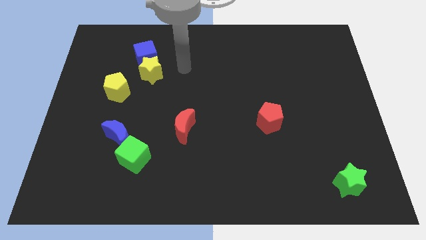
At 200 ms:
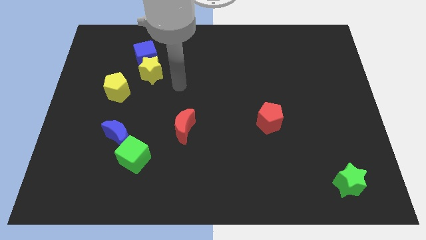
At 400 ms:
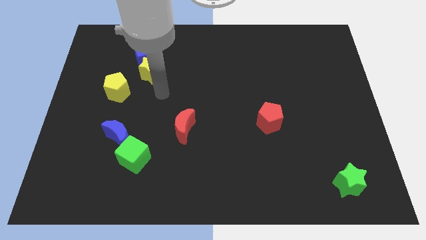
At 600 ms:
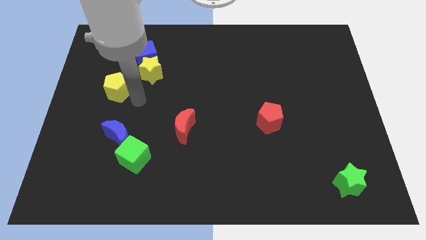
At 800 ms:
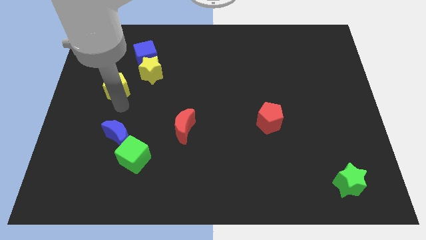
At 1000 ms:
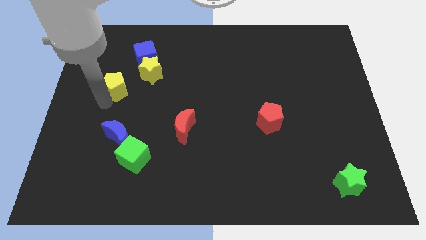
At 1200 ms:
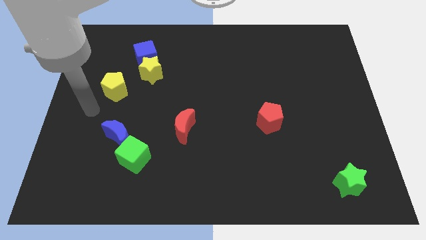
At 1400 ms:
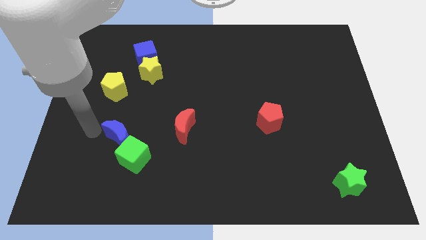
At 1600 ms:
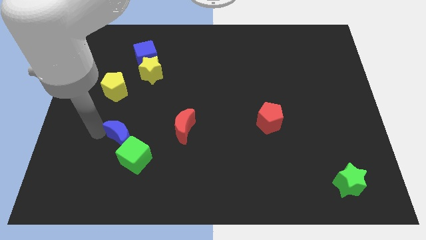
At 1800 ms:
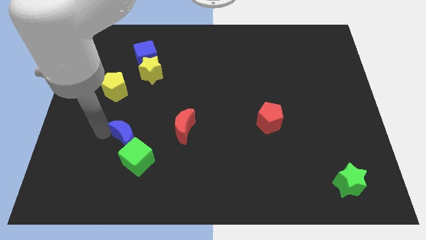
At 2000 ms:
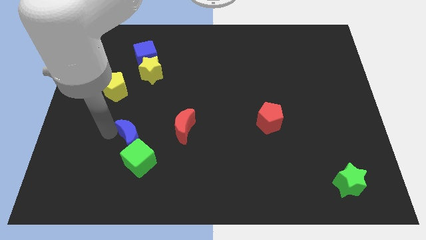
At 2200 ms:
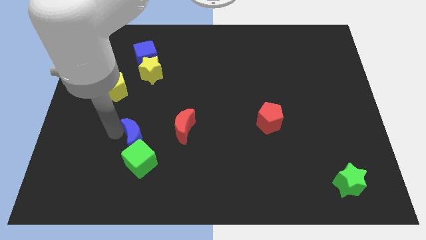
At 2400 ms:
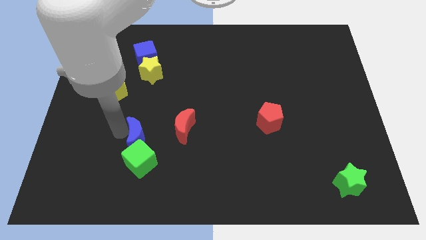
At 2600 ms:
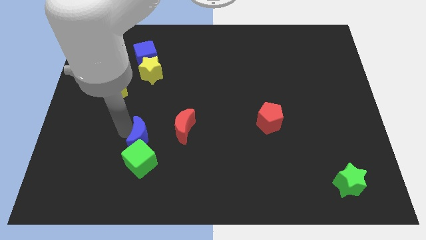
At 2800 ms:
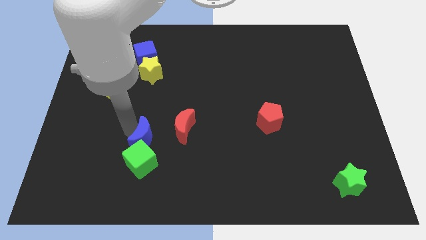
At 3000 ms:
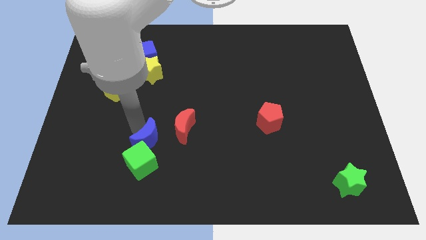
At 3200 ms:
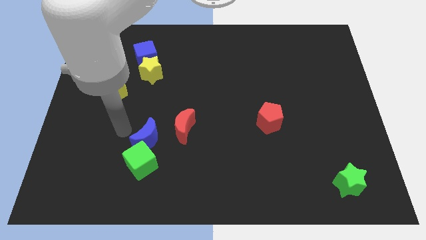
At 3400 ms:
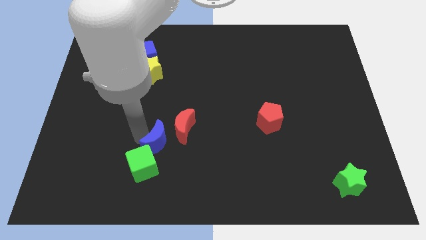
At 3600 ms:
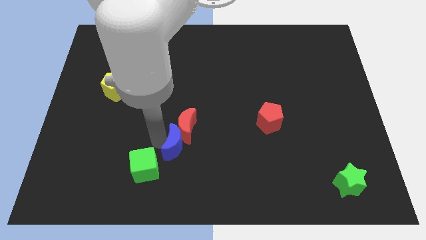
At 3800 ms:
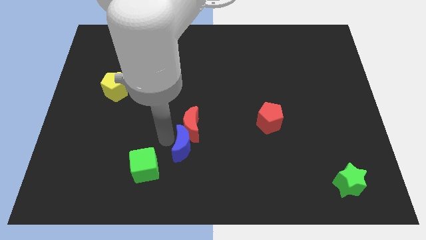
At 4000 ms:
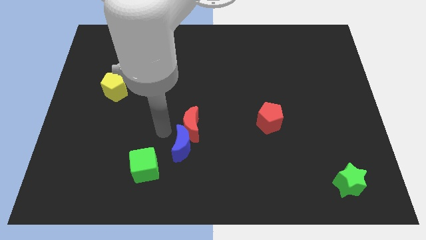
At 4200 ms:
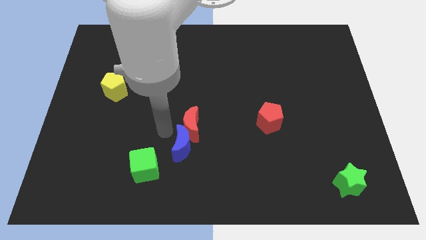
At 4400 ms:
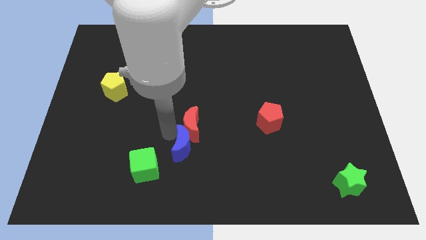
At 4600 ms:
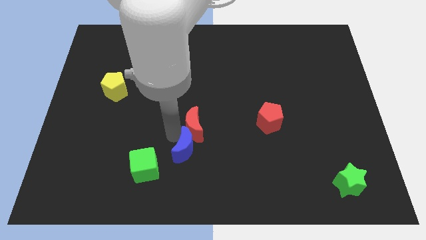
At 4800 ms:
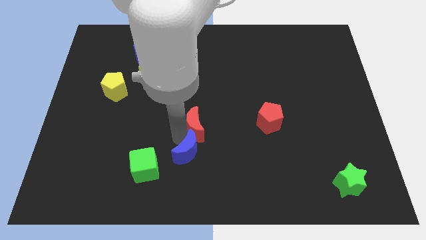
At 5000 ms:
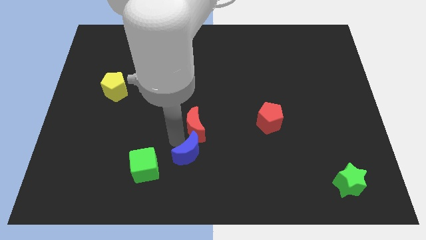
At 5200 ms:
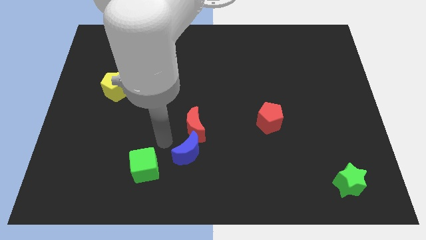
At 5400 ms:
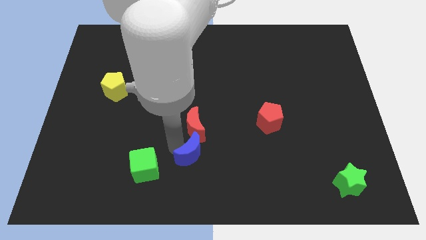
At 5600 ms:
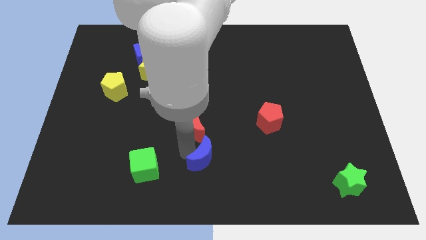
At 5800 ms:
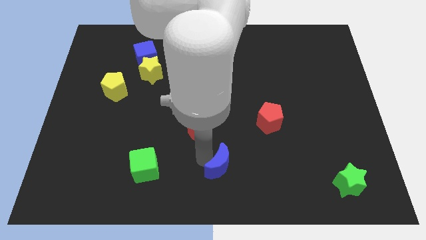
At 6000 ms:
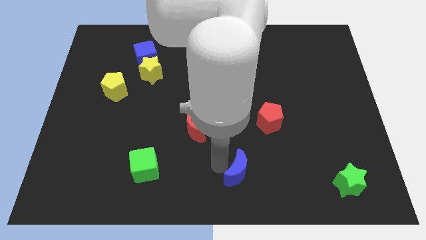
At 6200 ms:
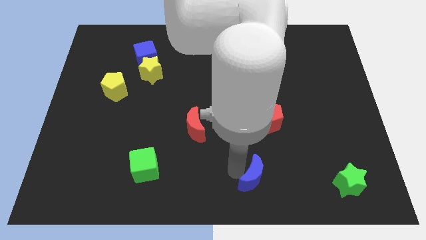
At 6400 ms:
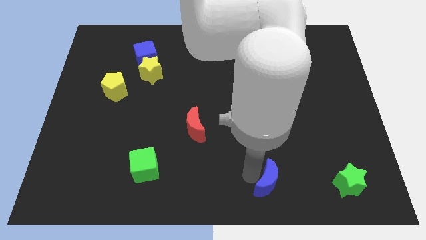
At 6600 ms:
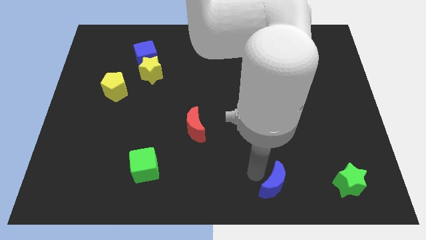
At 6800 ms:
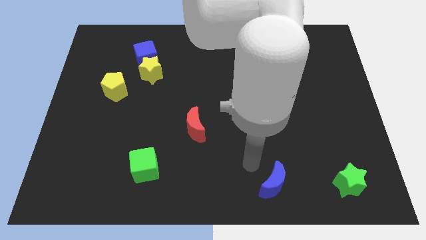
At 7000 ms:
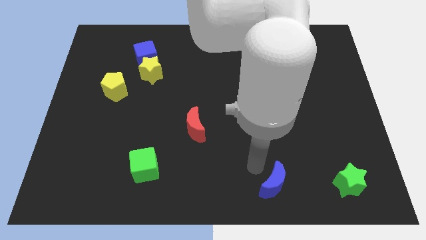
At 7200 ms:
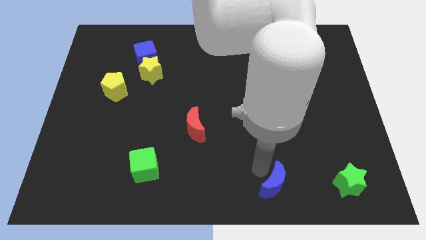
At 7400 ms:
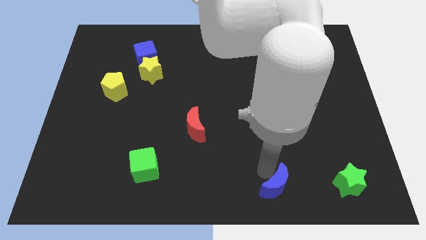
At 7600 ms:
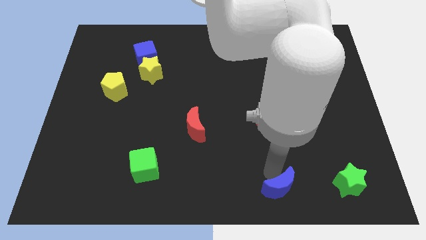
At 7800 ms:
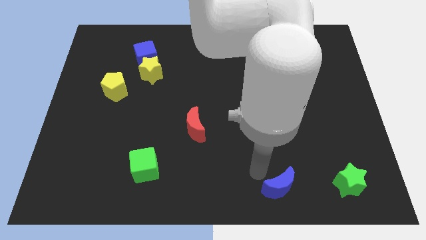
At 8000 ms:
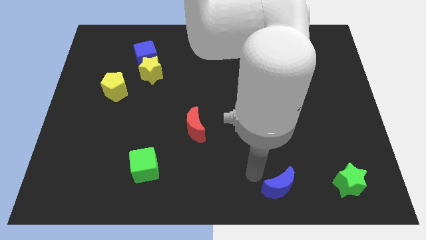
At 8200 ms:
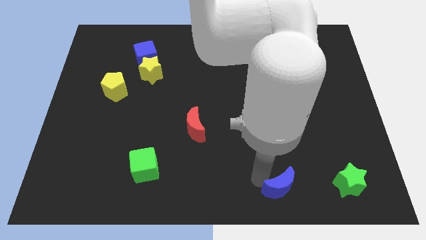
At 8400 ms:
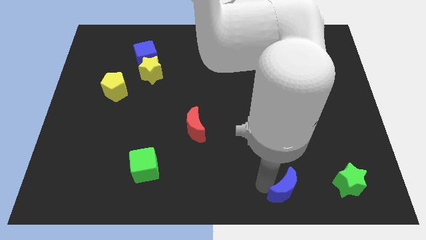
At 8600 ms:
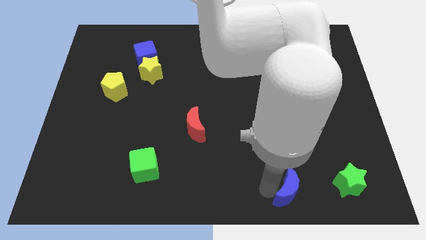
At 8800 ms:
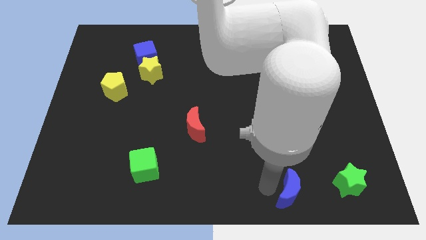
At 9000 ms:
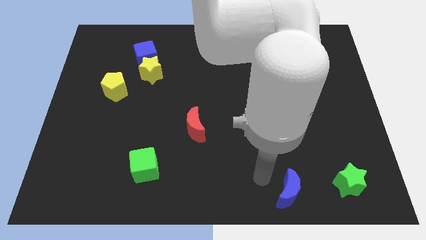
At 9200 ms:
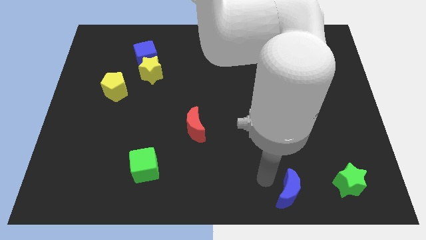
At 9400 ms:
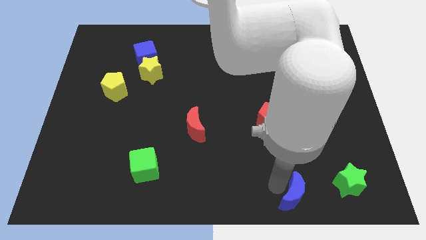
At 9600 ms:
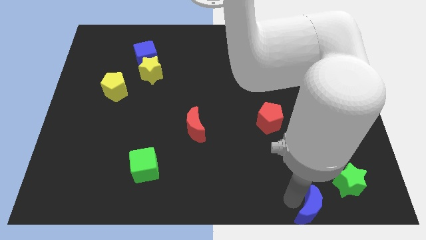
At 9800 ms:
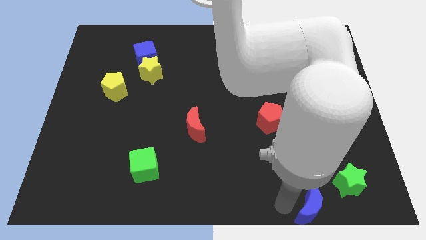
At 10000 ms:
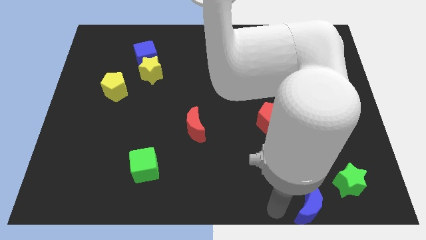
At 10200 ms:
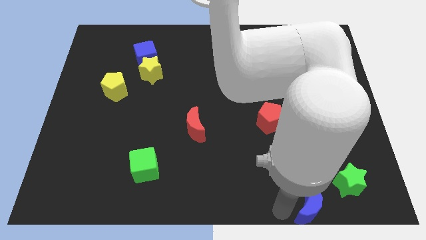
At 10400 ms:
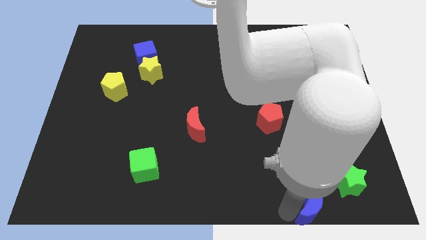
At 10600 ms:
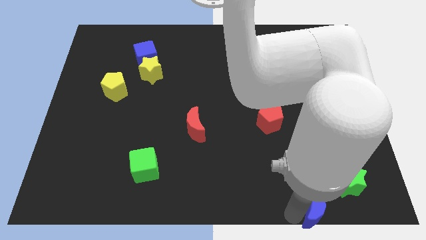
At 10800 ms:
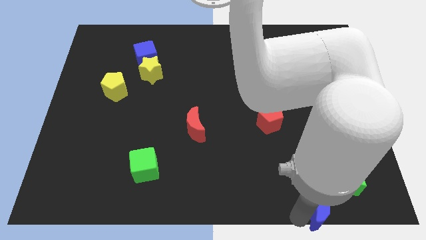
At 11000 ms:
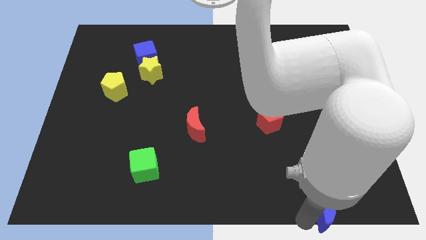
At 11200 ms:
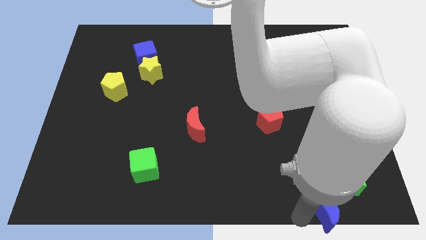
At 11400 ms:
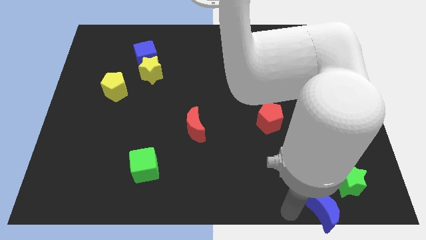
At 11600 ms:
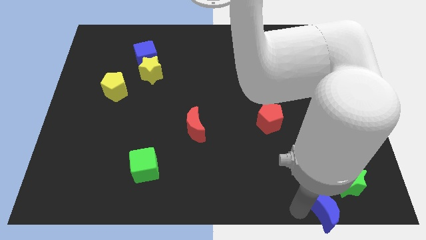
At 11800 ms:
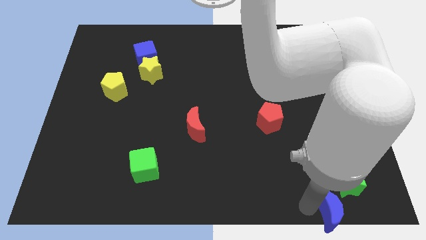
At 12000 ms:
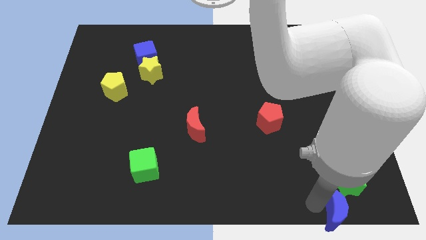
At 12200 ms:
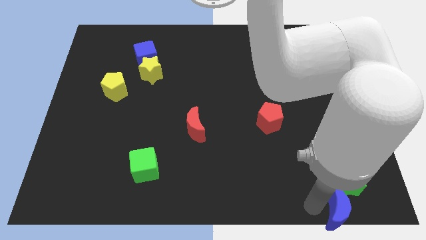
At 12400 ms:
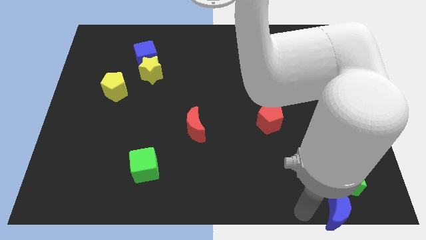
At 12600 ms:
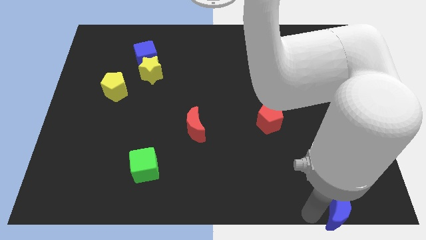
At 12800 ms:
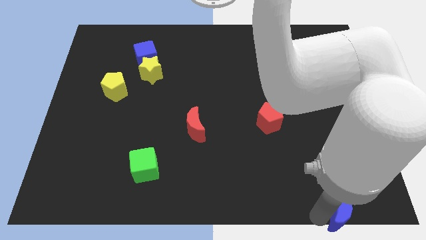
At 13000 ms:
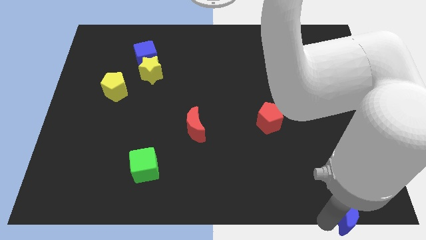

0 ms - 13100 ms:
move the blue moon to the bottom right

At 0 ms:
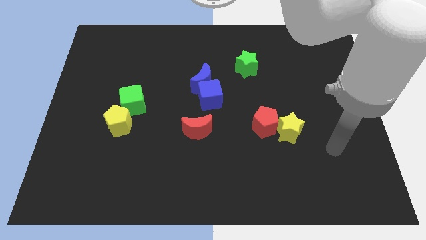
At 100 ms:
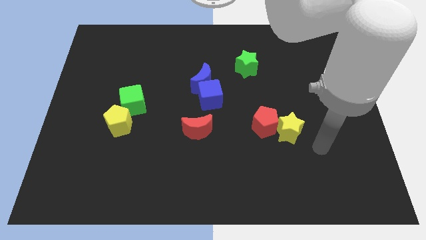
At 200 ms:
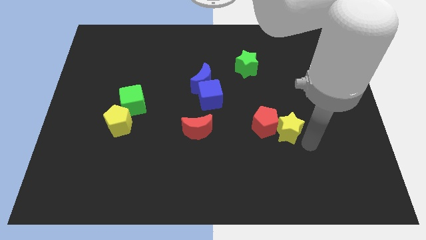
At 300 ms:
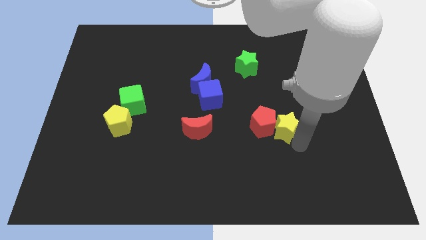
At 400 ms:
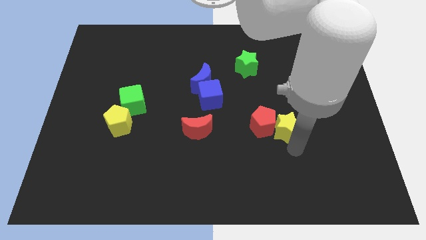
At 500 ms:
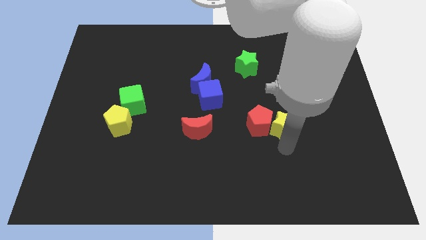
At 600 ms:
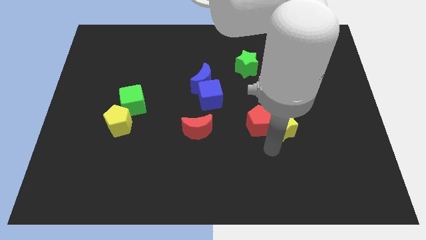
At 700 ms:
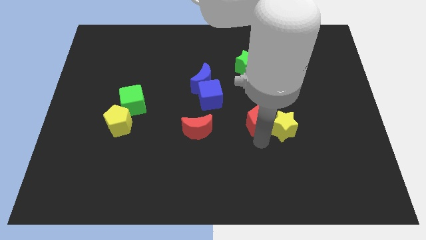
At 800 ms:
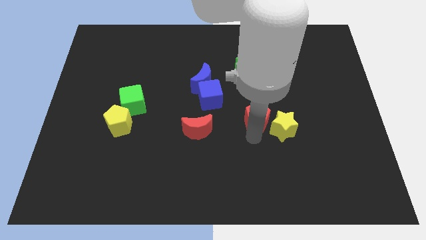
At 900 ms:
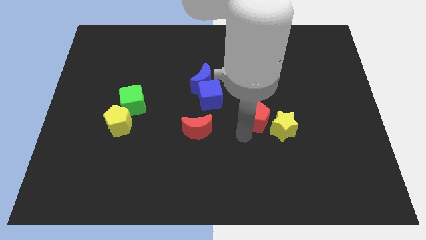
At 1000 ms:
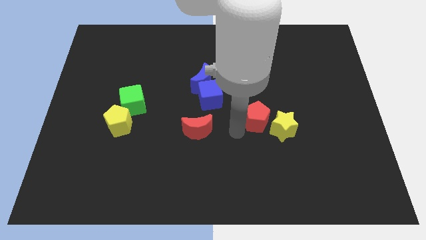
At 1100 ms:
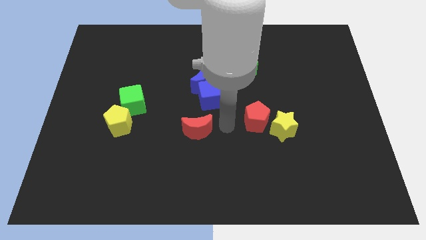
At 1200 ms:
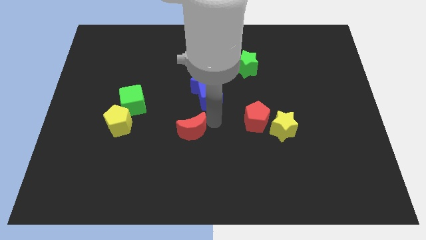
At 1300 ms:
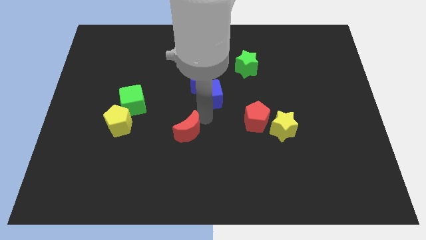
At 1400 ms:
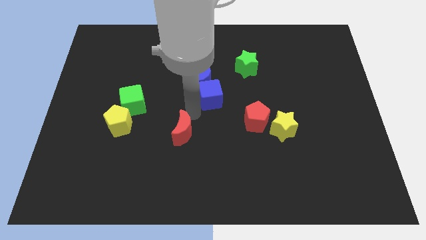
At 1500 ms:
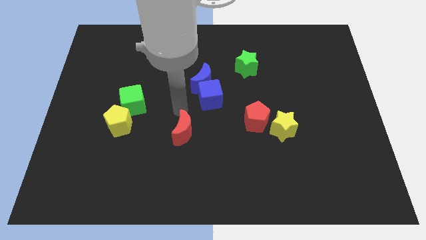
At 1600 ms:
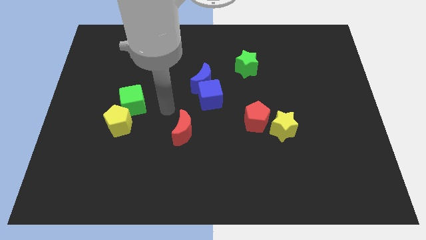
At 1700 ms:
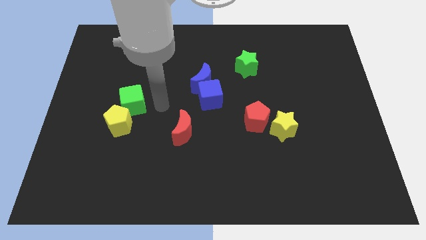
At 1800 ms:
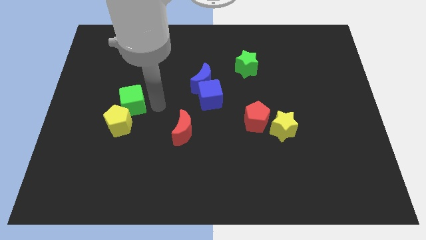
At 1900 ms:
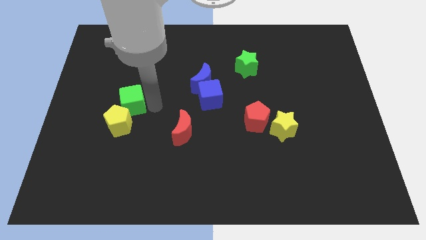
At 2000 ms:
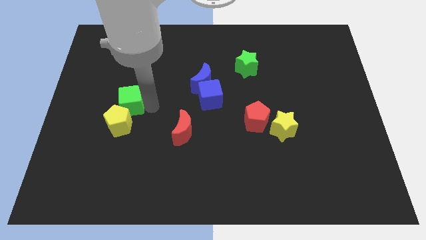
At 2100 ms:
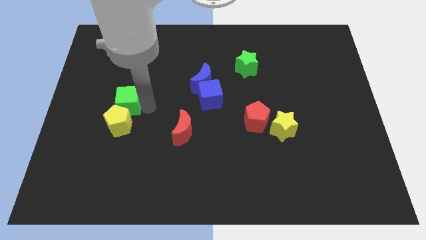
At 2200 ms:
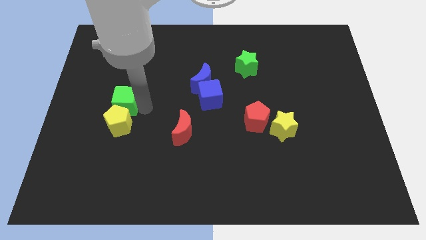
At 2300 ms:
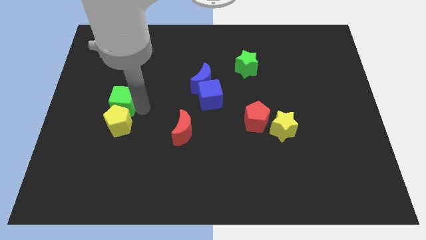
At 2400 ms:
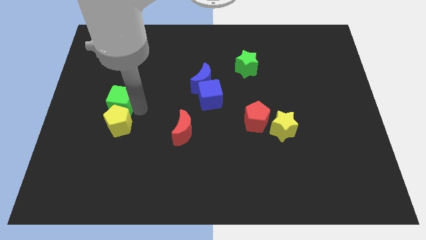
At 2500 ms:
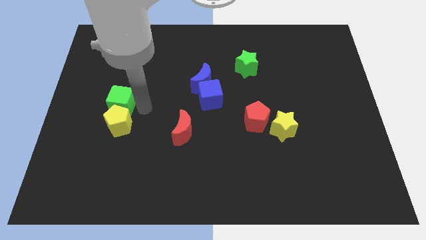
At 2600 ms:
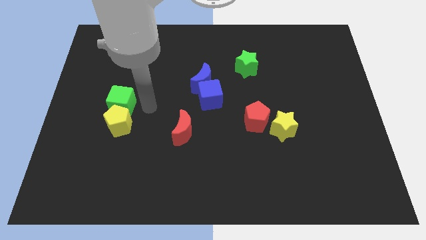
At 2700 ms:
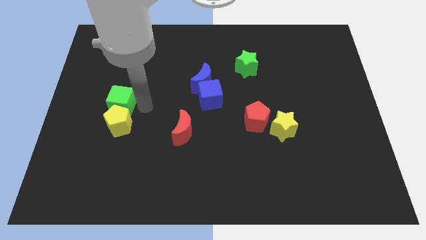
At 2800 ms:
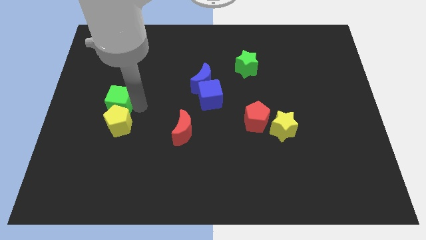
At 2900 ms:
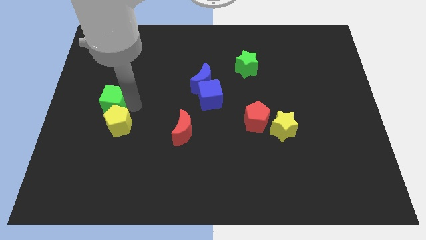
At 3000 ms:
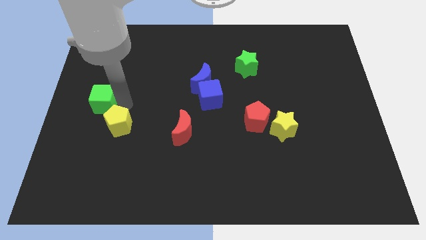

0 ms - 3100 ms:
put the green cube to the left side
